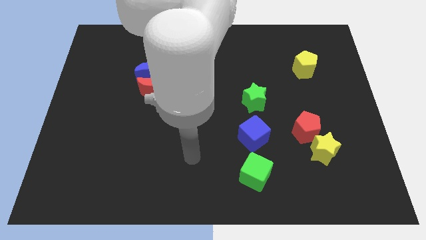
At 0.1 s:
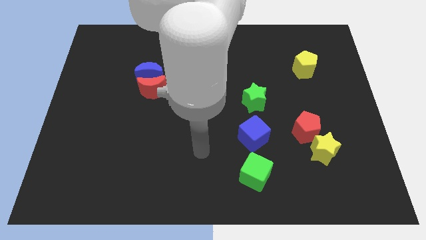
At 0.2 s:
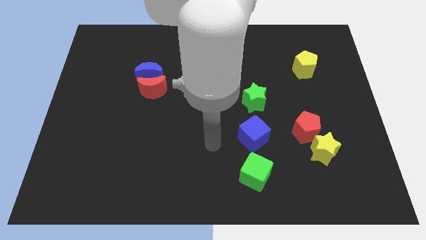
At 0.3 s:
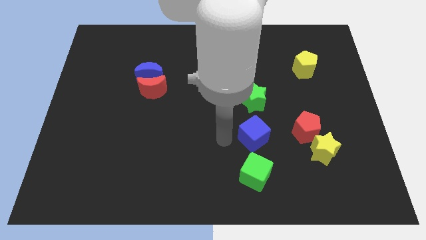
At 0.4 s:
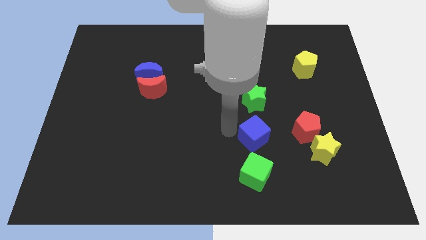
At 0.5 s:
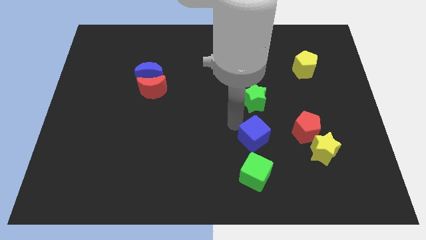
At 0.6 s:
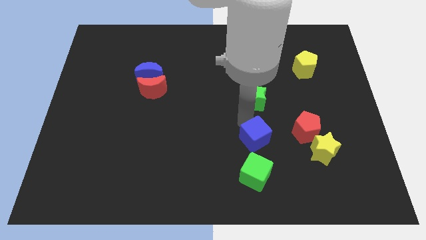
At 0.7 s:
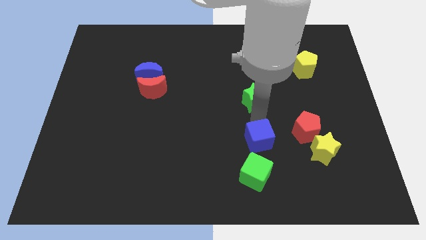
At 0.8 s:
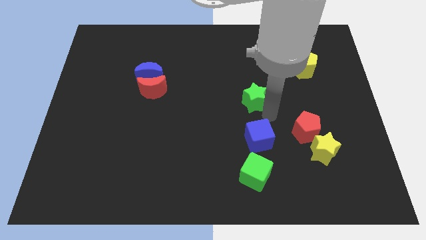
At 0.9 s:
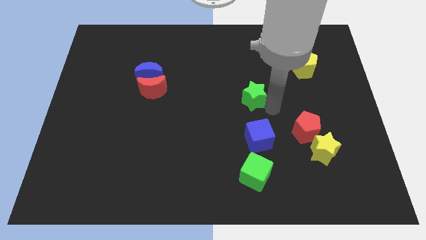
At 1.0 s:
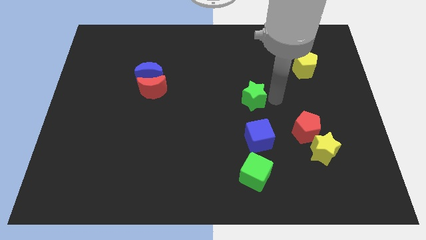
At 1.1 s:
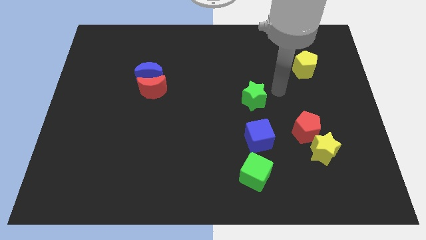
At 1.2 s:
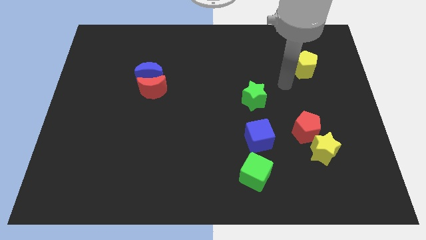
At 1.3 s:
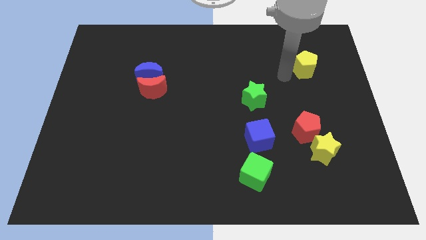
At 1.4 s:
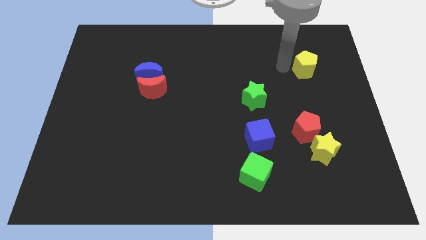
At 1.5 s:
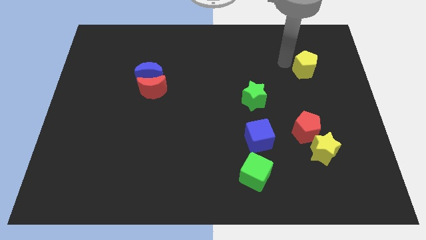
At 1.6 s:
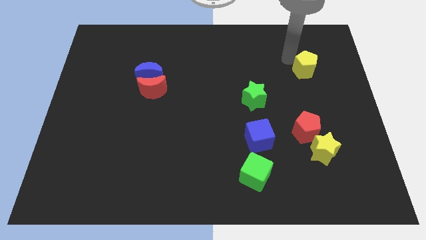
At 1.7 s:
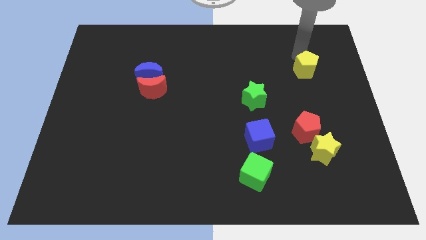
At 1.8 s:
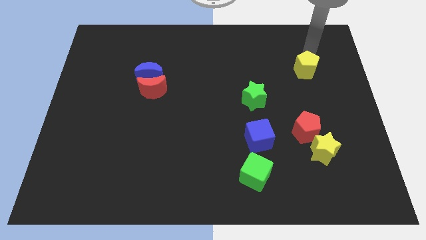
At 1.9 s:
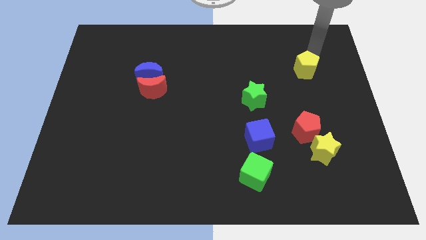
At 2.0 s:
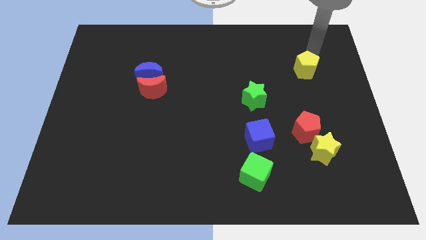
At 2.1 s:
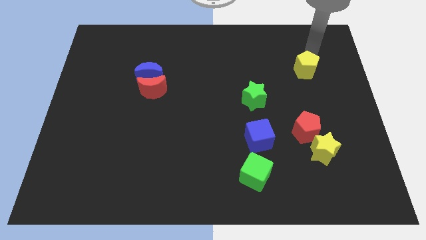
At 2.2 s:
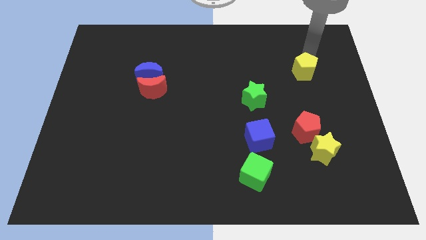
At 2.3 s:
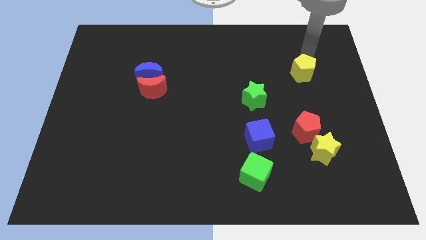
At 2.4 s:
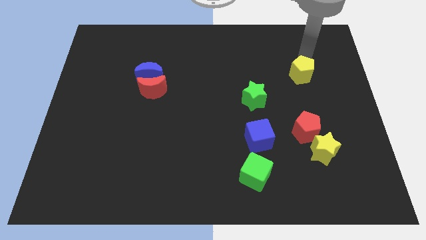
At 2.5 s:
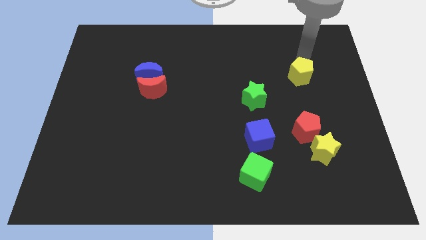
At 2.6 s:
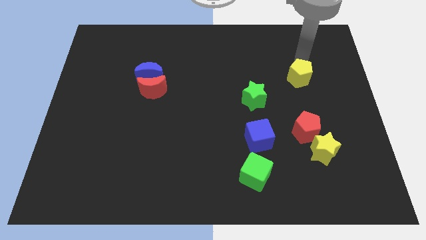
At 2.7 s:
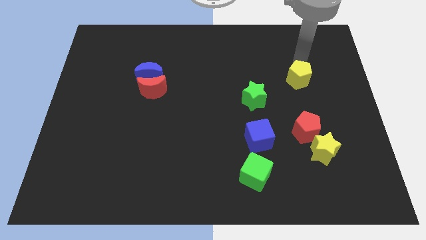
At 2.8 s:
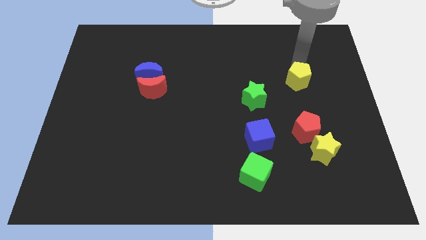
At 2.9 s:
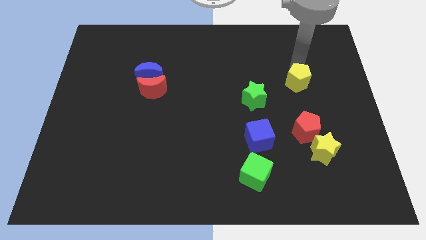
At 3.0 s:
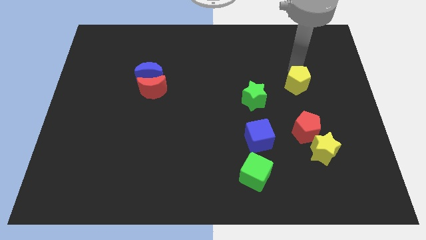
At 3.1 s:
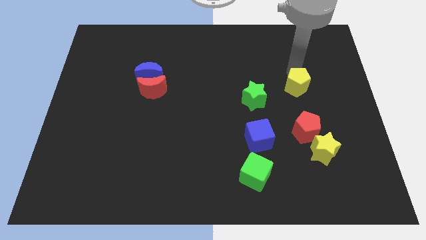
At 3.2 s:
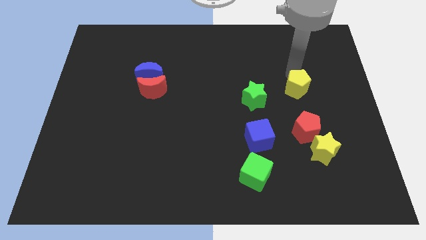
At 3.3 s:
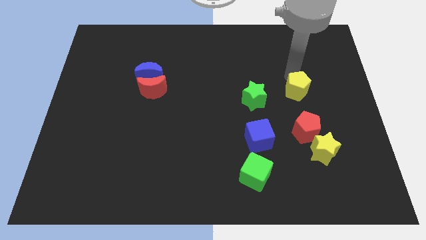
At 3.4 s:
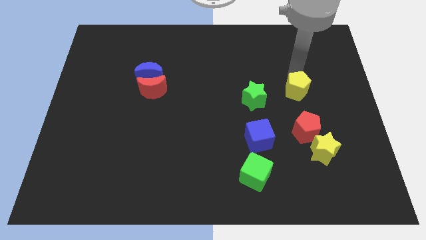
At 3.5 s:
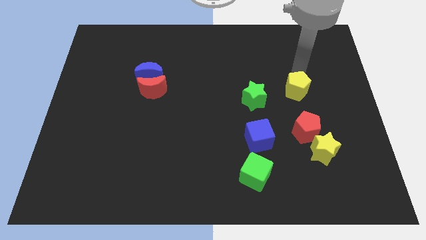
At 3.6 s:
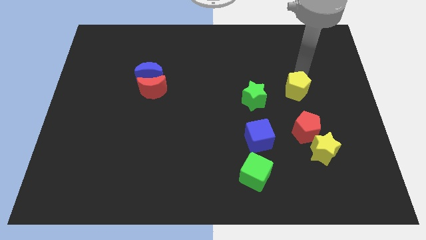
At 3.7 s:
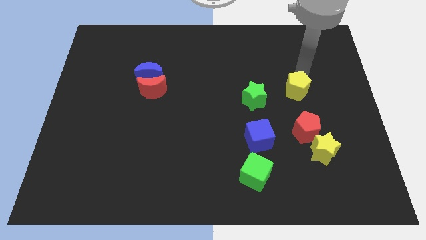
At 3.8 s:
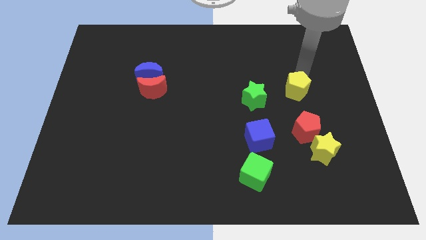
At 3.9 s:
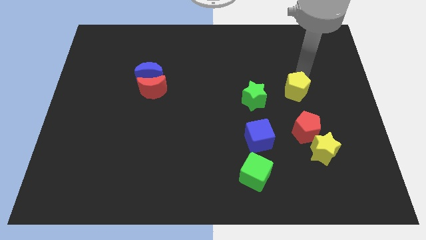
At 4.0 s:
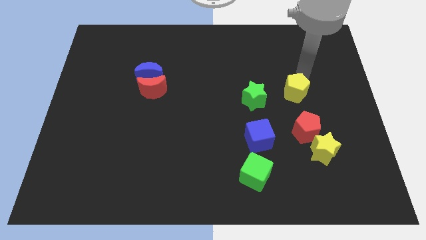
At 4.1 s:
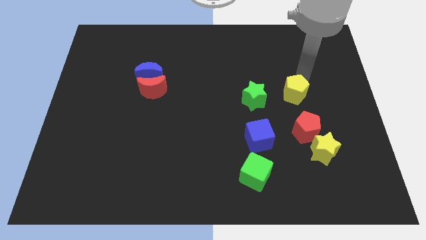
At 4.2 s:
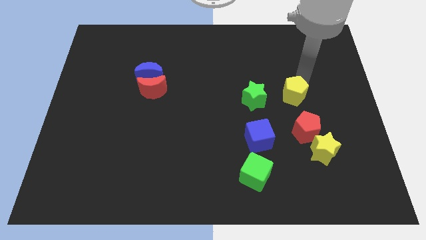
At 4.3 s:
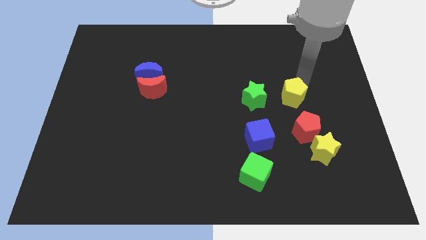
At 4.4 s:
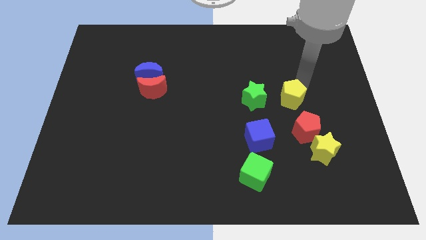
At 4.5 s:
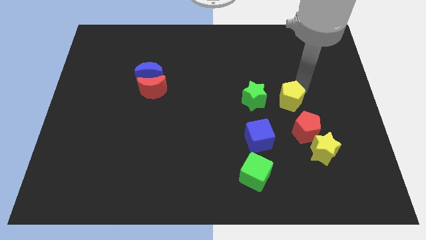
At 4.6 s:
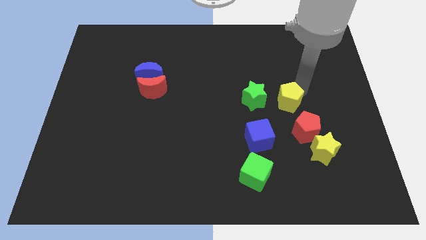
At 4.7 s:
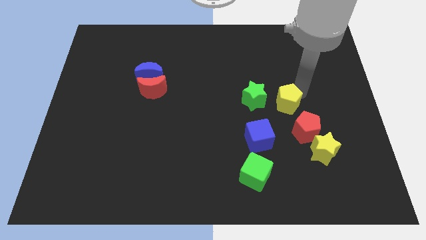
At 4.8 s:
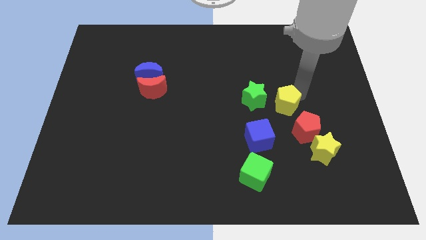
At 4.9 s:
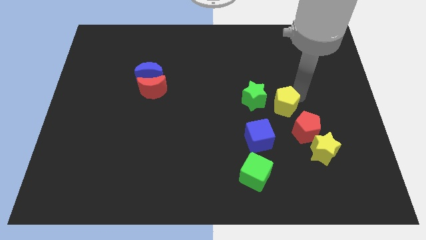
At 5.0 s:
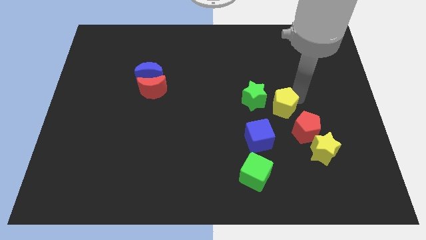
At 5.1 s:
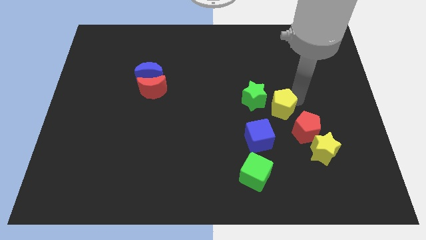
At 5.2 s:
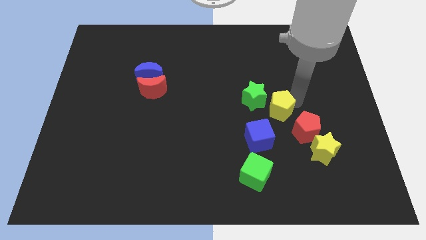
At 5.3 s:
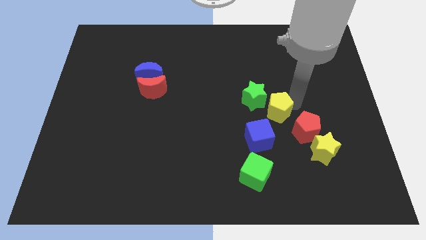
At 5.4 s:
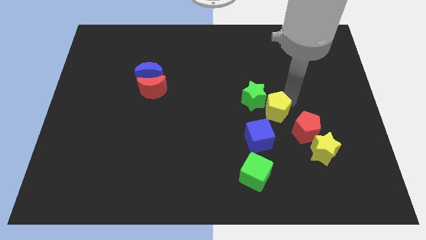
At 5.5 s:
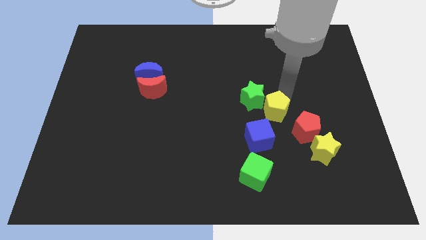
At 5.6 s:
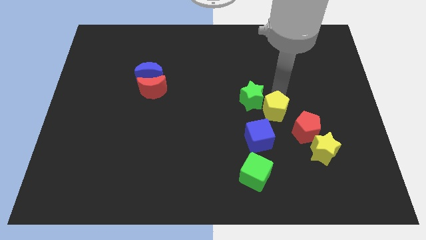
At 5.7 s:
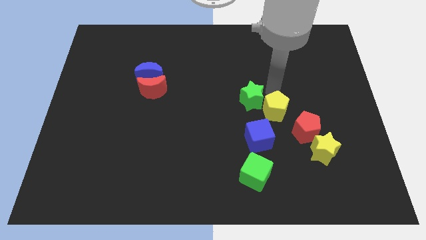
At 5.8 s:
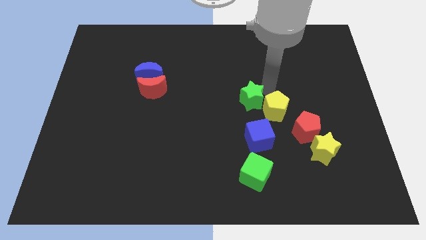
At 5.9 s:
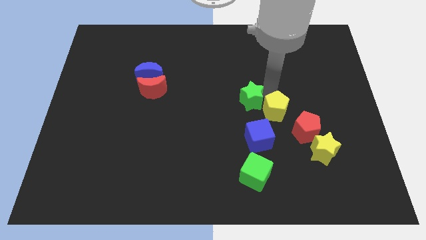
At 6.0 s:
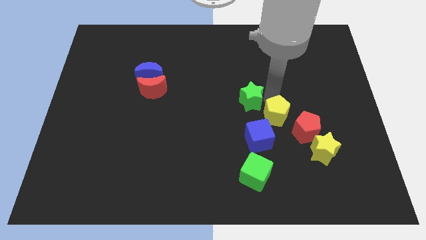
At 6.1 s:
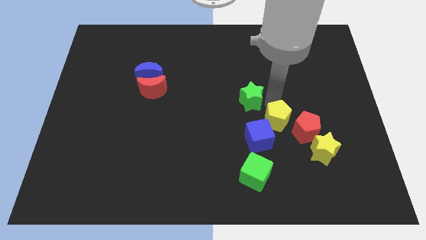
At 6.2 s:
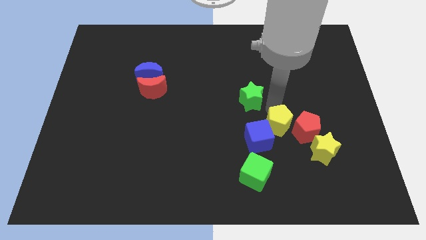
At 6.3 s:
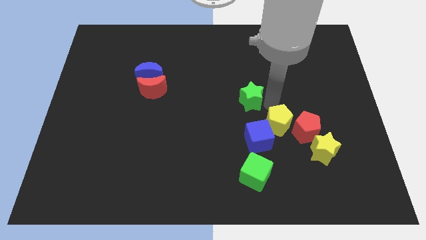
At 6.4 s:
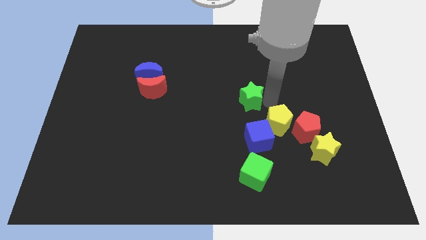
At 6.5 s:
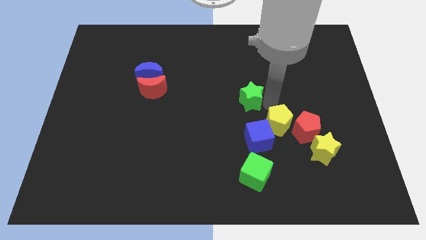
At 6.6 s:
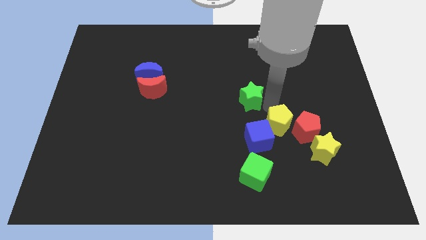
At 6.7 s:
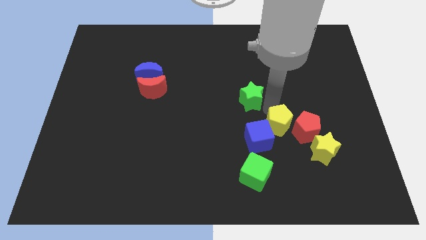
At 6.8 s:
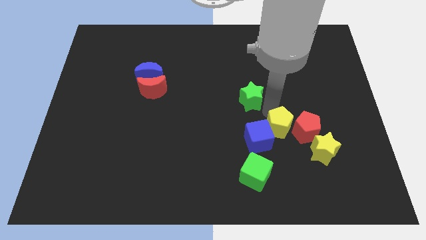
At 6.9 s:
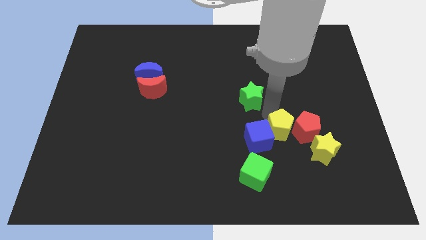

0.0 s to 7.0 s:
slide the yellow pentagon to the bottom left side of the red pentagon

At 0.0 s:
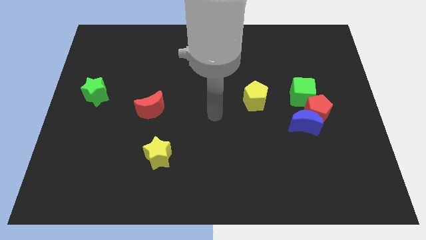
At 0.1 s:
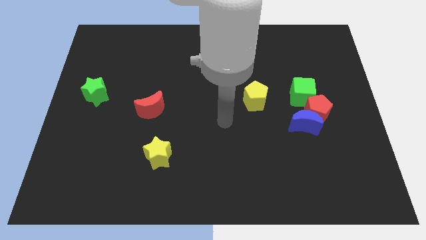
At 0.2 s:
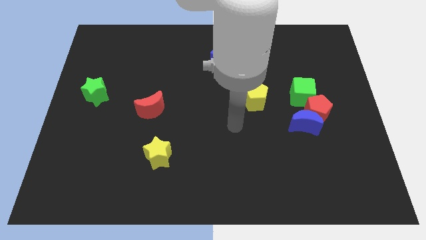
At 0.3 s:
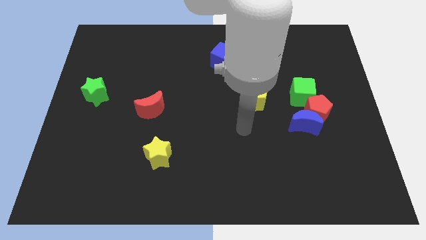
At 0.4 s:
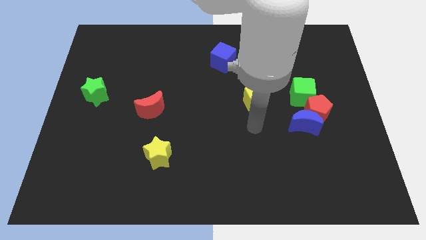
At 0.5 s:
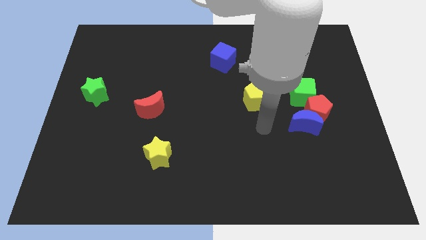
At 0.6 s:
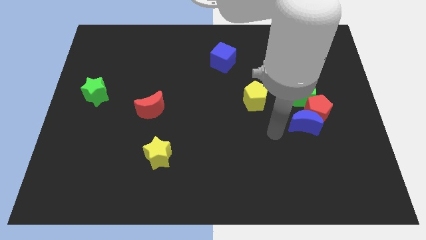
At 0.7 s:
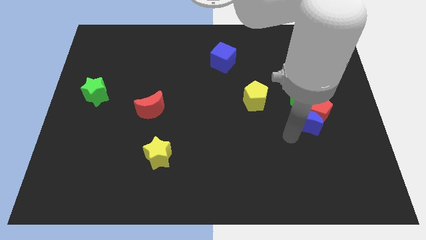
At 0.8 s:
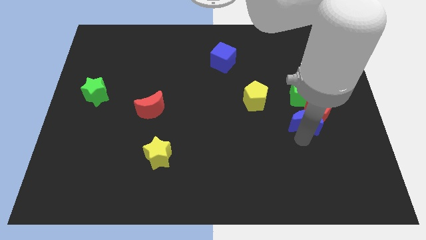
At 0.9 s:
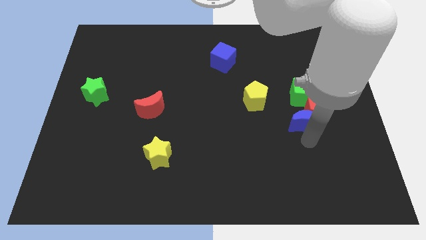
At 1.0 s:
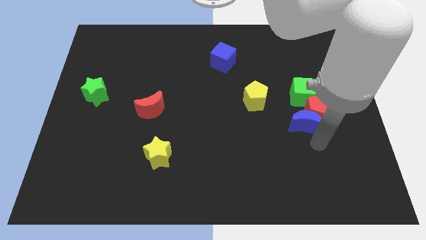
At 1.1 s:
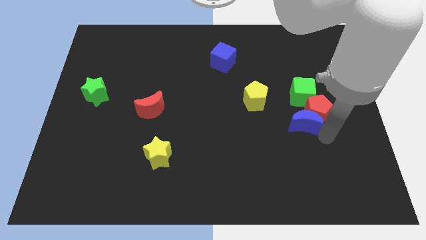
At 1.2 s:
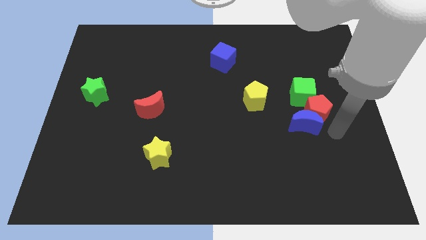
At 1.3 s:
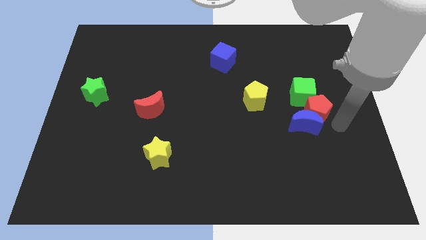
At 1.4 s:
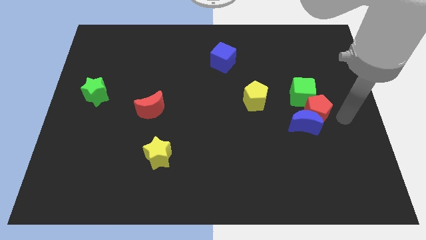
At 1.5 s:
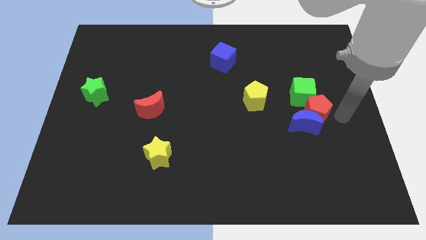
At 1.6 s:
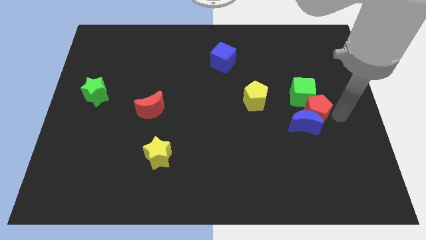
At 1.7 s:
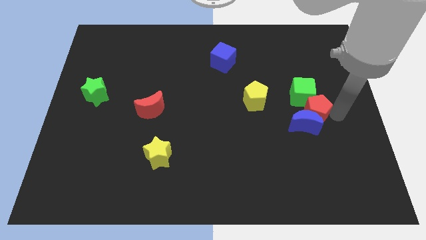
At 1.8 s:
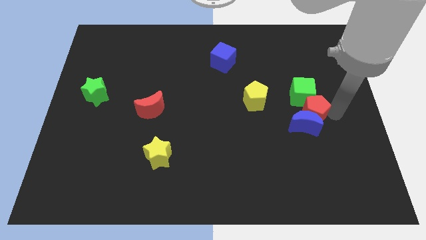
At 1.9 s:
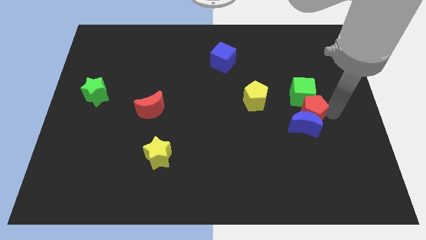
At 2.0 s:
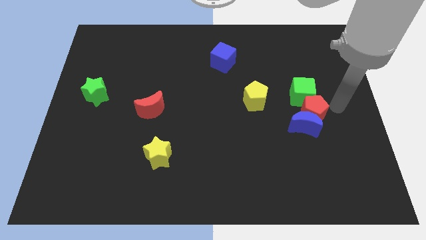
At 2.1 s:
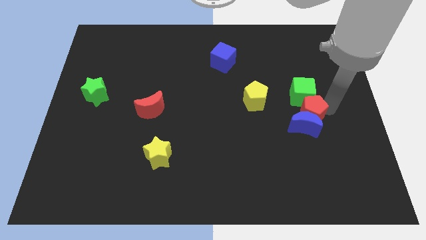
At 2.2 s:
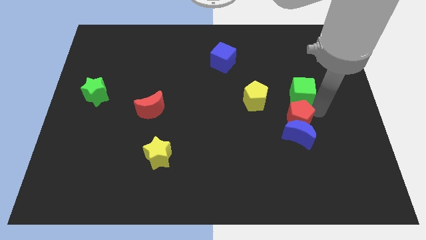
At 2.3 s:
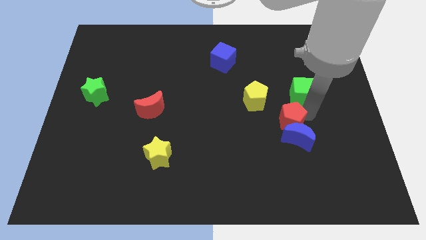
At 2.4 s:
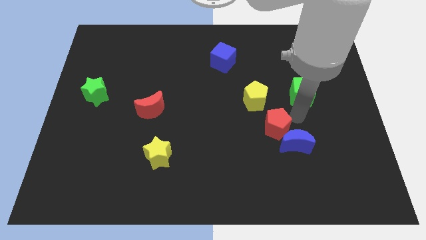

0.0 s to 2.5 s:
slide the red pentagon left of the blue moon
